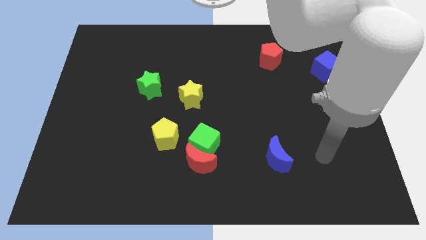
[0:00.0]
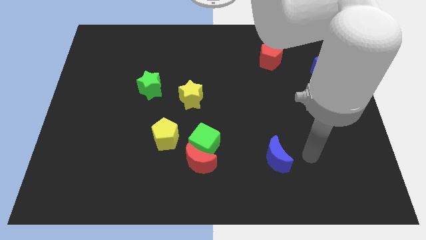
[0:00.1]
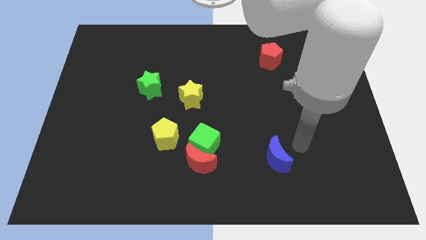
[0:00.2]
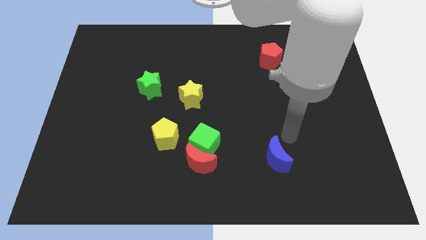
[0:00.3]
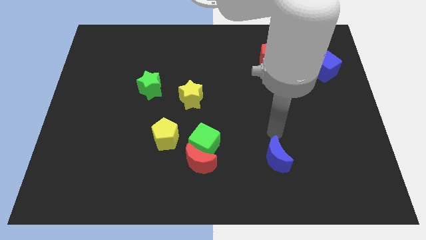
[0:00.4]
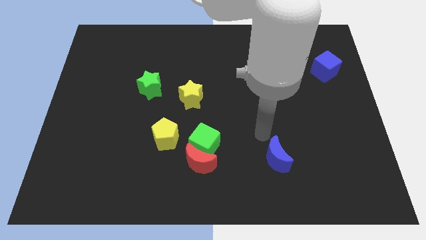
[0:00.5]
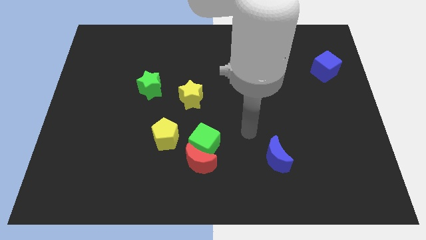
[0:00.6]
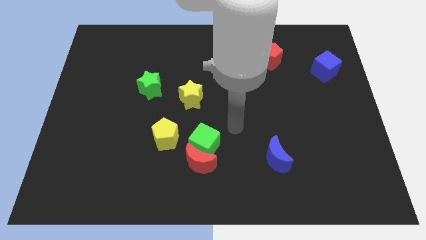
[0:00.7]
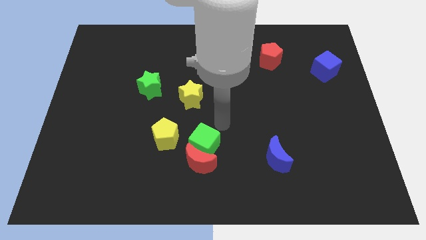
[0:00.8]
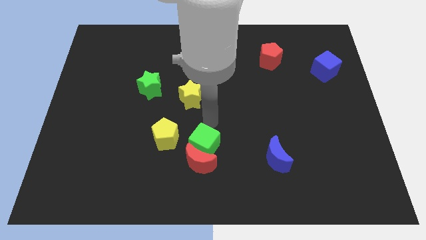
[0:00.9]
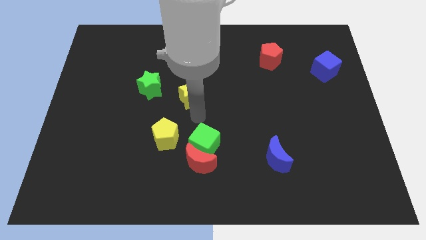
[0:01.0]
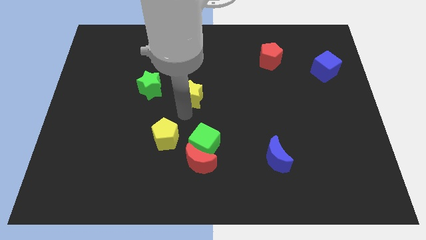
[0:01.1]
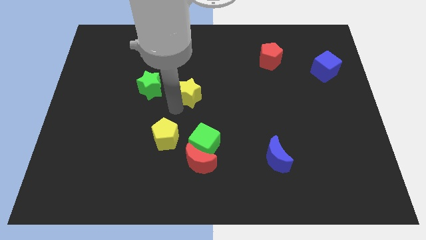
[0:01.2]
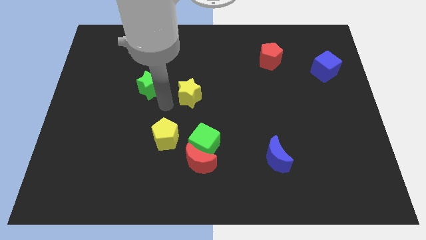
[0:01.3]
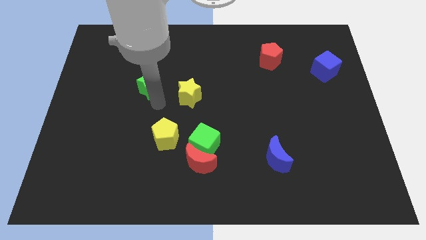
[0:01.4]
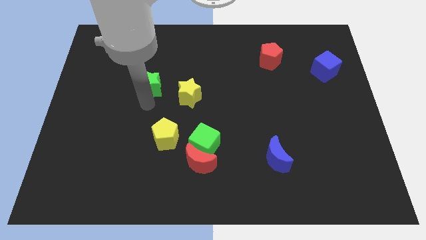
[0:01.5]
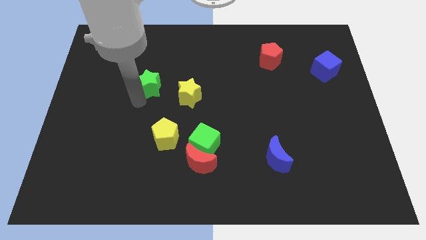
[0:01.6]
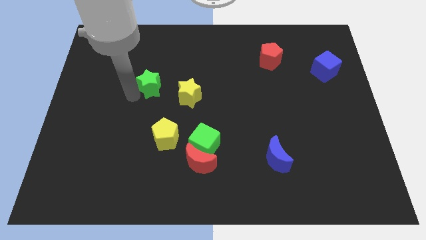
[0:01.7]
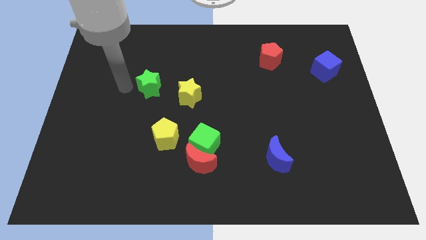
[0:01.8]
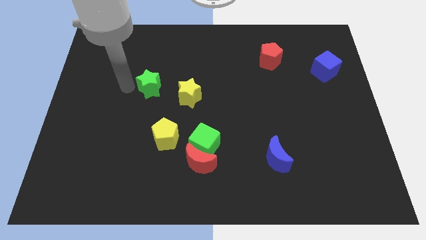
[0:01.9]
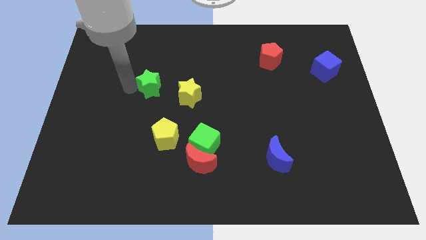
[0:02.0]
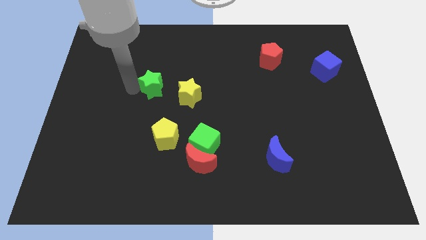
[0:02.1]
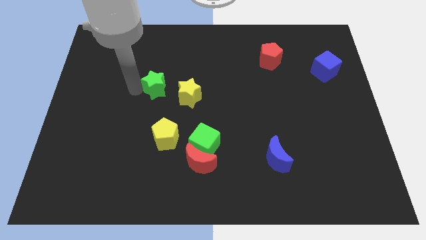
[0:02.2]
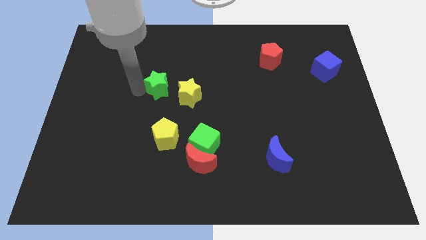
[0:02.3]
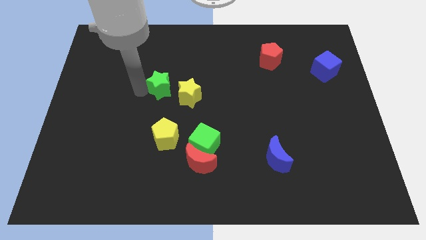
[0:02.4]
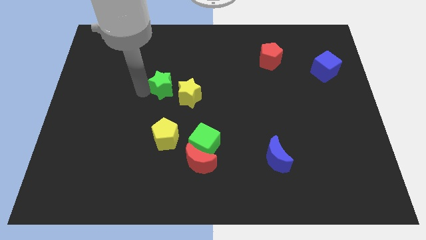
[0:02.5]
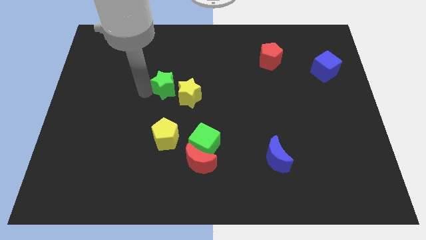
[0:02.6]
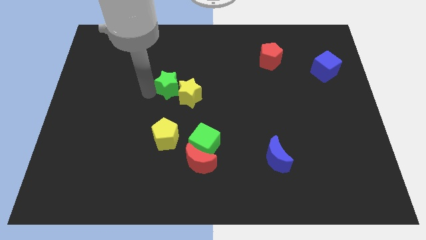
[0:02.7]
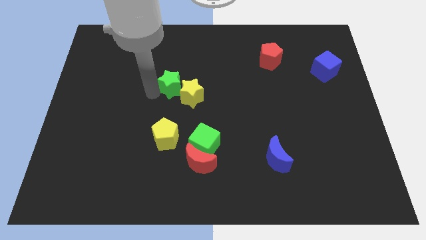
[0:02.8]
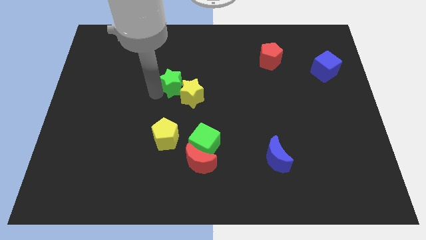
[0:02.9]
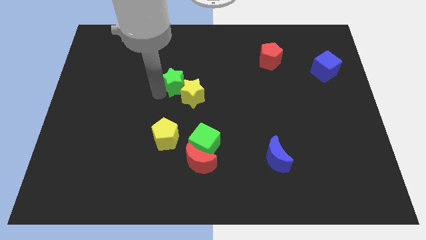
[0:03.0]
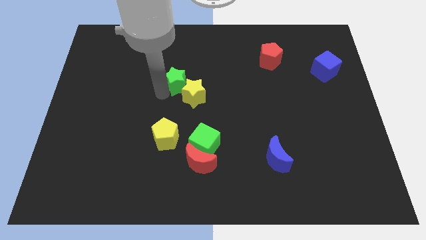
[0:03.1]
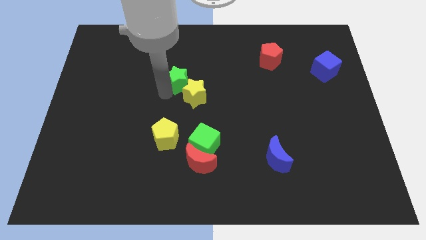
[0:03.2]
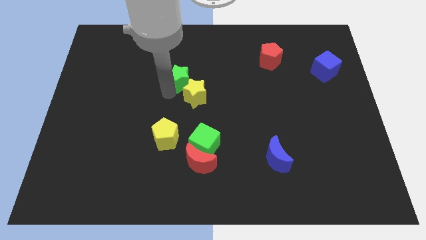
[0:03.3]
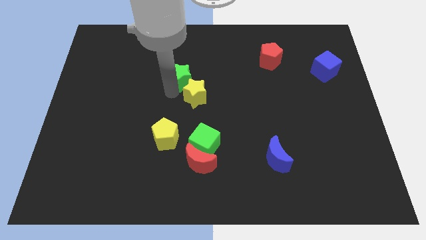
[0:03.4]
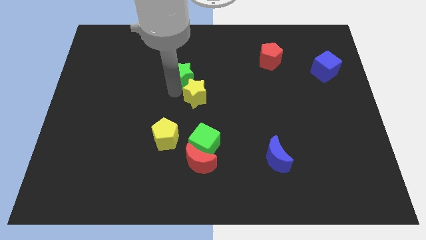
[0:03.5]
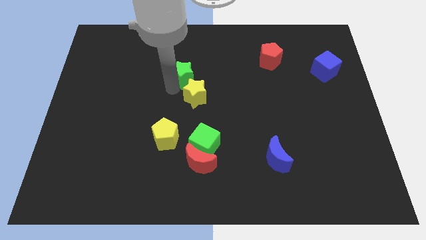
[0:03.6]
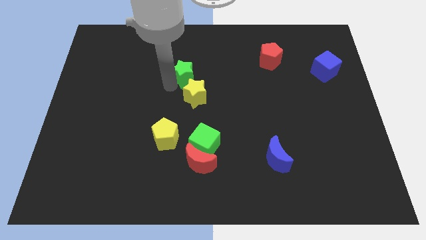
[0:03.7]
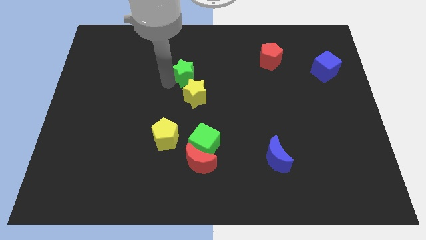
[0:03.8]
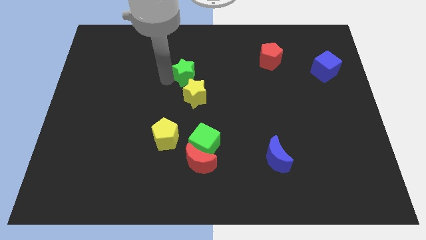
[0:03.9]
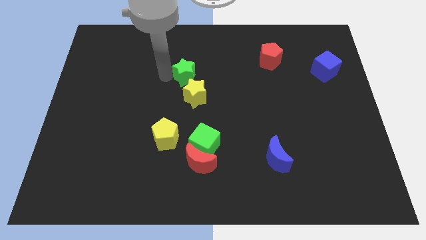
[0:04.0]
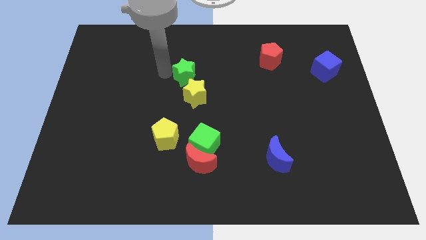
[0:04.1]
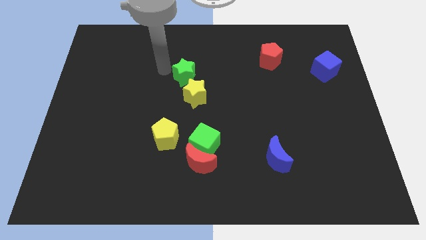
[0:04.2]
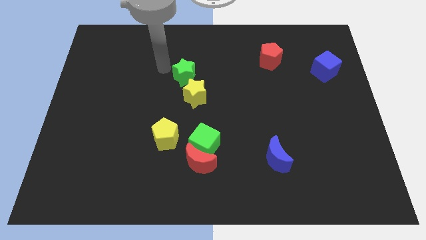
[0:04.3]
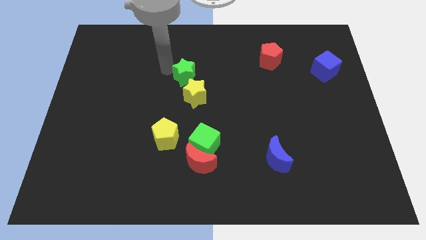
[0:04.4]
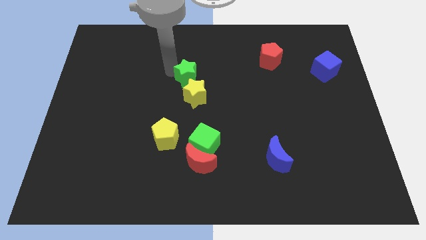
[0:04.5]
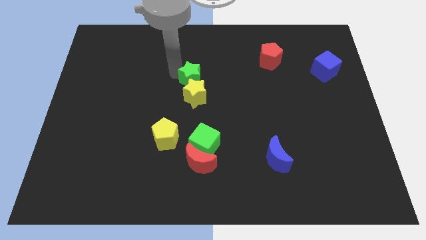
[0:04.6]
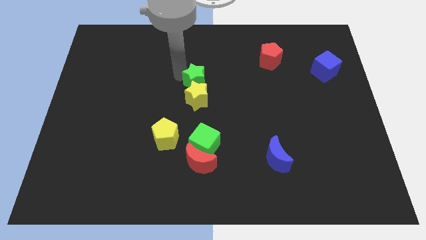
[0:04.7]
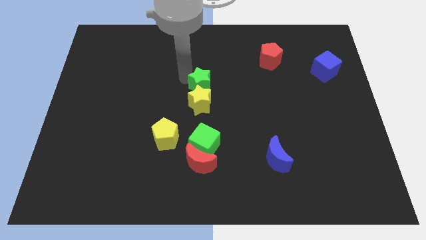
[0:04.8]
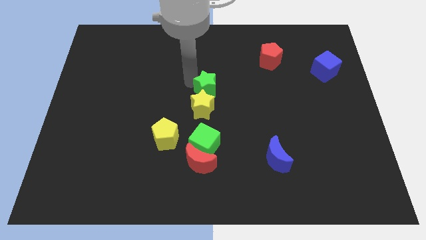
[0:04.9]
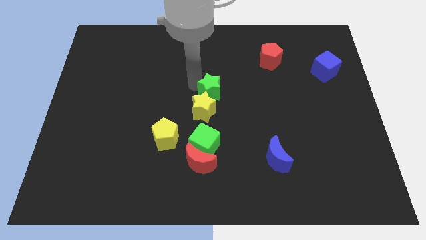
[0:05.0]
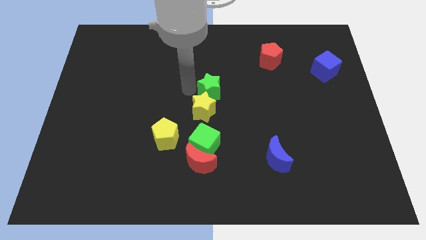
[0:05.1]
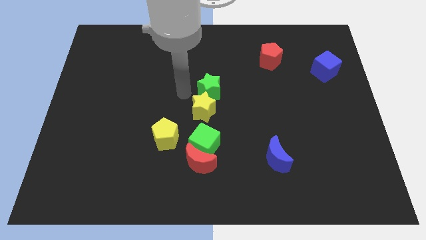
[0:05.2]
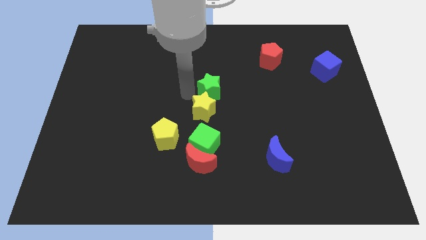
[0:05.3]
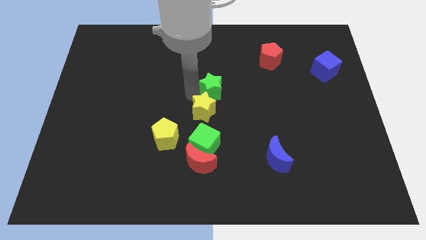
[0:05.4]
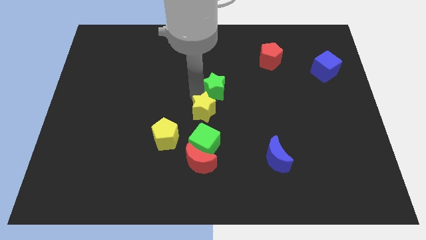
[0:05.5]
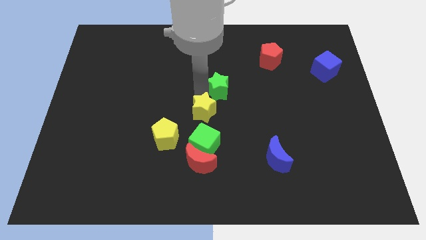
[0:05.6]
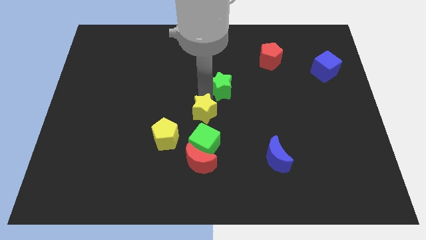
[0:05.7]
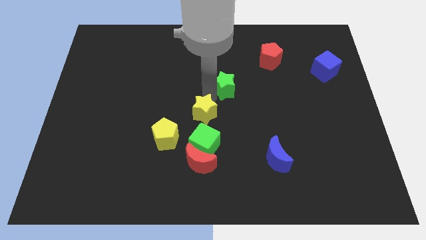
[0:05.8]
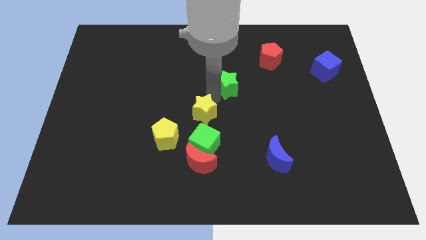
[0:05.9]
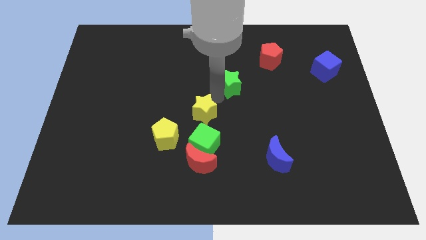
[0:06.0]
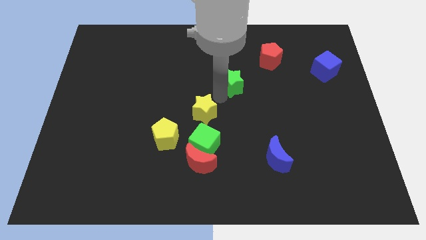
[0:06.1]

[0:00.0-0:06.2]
move the green star right

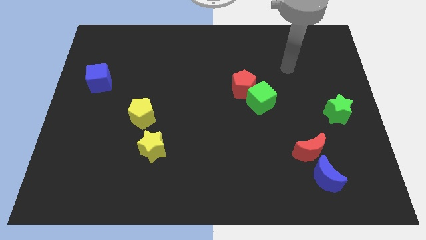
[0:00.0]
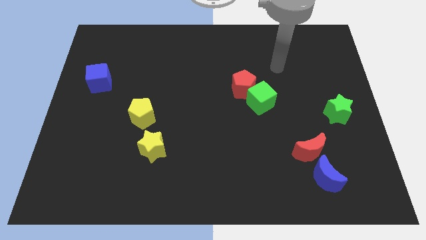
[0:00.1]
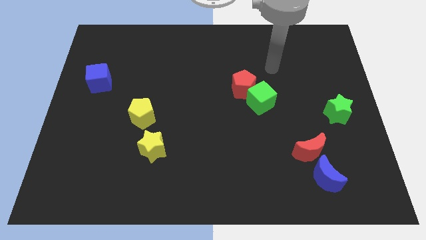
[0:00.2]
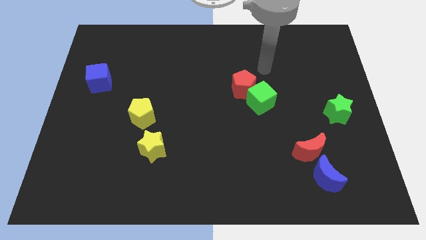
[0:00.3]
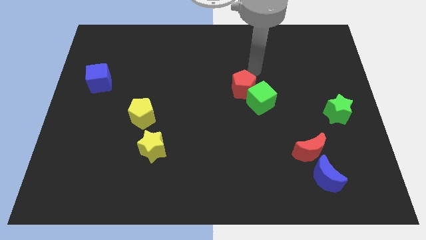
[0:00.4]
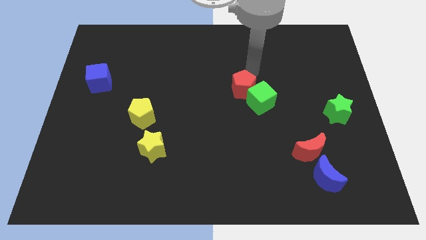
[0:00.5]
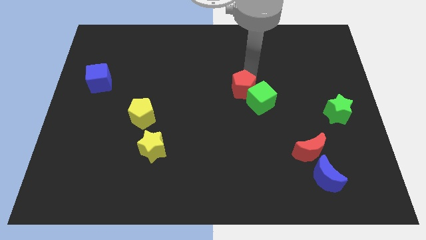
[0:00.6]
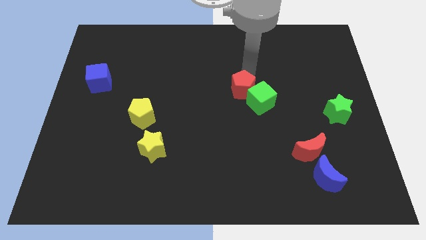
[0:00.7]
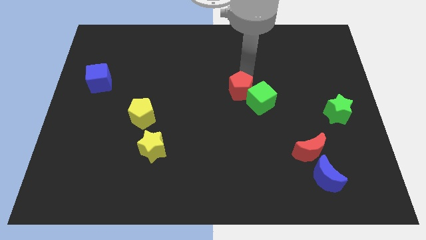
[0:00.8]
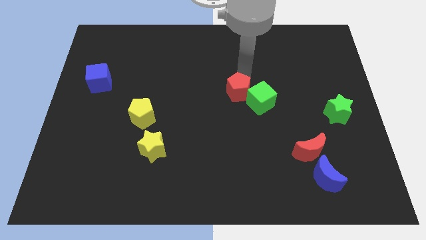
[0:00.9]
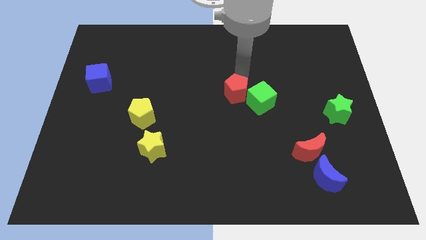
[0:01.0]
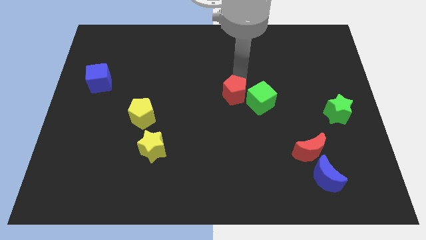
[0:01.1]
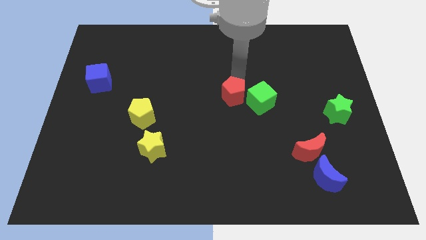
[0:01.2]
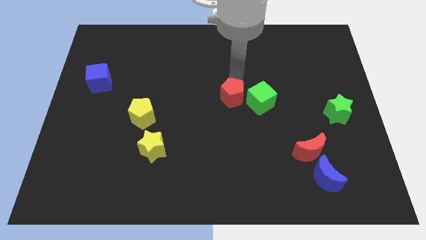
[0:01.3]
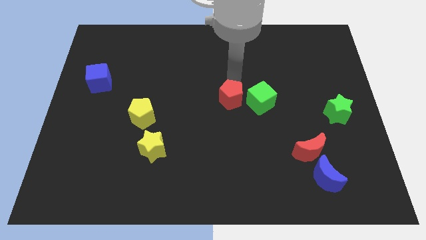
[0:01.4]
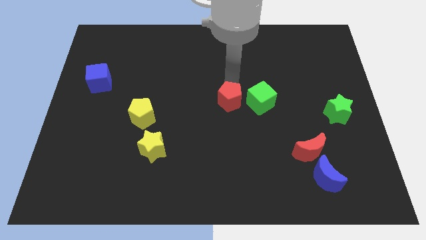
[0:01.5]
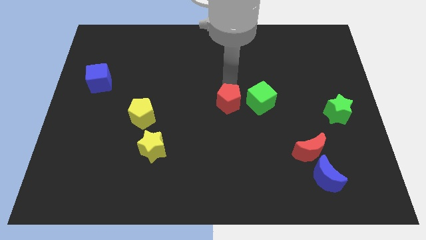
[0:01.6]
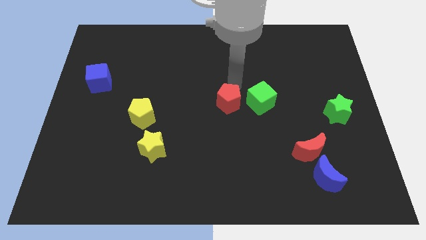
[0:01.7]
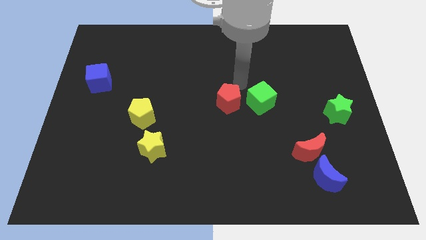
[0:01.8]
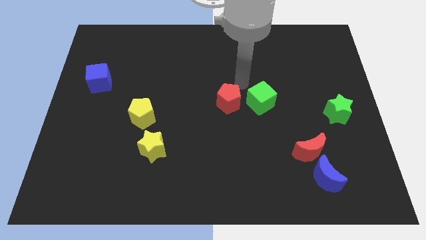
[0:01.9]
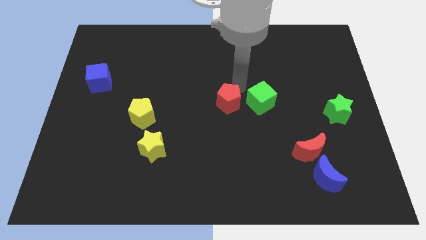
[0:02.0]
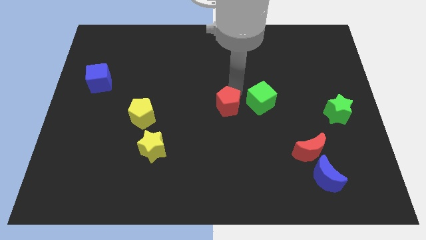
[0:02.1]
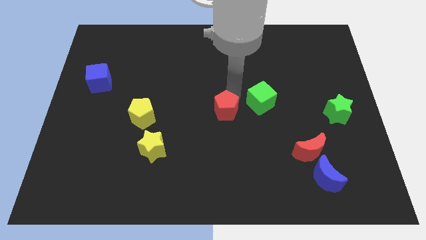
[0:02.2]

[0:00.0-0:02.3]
slightly move the red pentagon downwards and left
